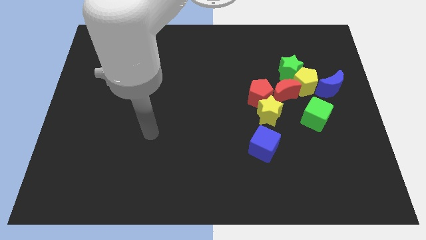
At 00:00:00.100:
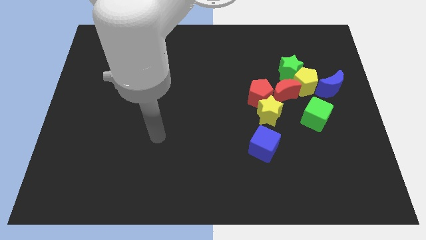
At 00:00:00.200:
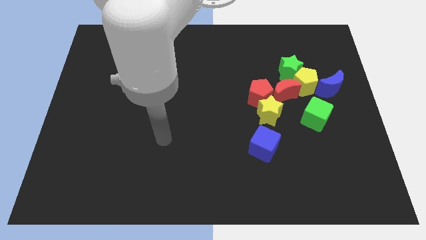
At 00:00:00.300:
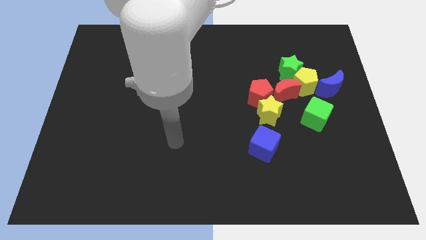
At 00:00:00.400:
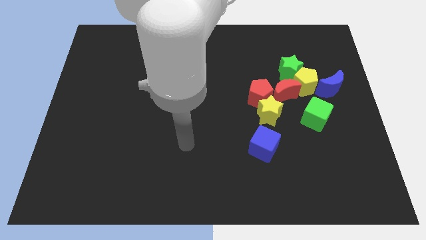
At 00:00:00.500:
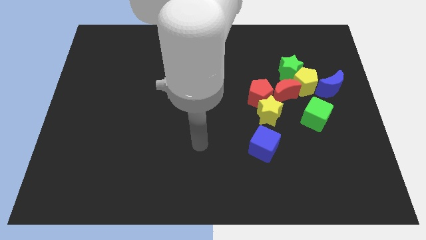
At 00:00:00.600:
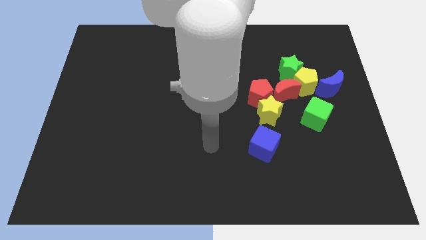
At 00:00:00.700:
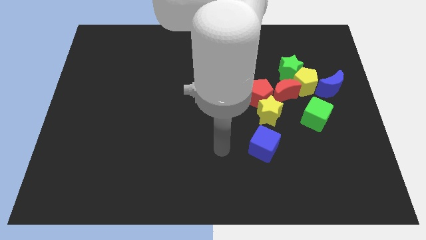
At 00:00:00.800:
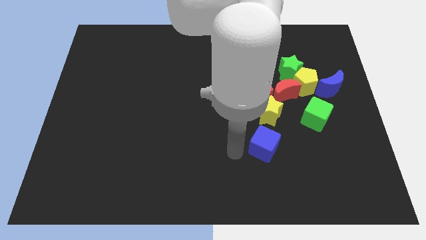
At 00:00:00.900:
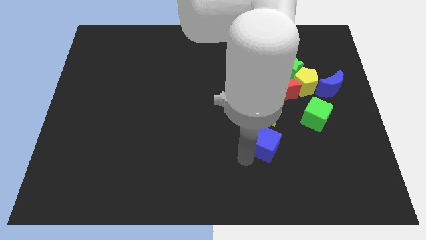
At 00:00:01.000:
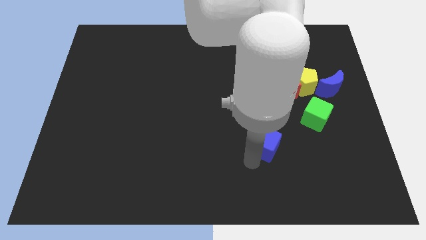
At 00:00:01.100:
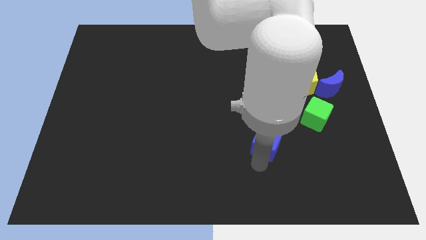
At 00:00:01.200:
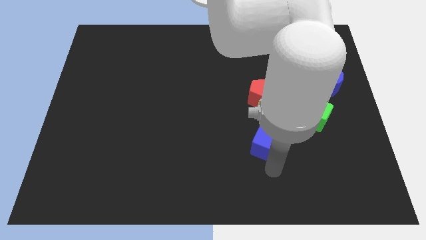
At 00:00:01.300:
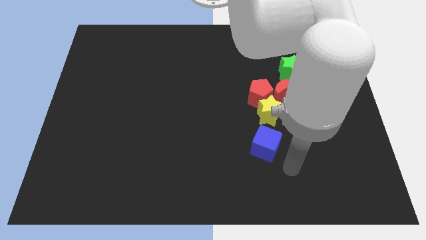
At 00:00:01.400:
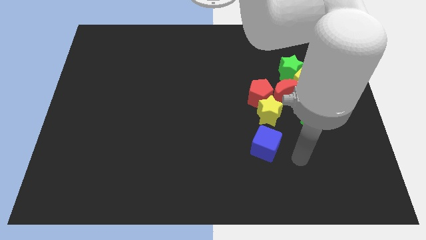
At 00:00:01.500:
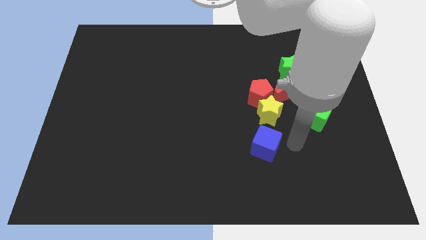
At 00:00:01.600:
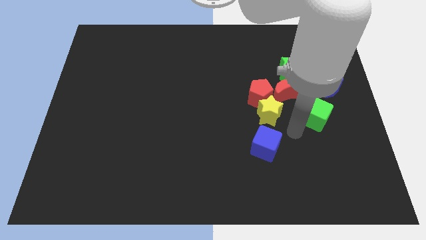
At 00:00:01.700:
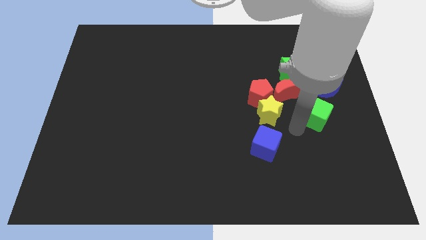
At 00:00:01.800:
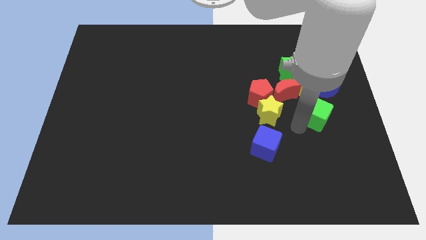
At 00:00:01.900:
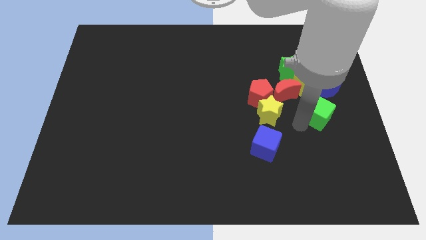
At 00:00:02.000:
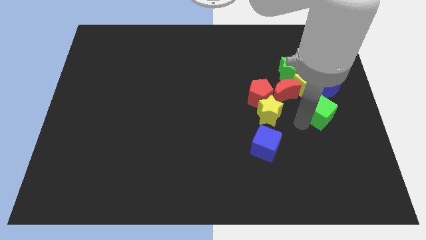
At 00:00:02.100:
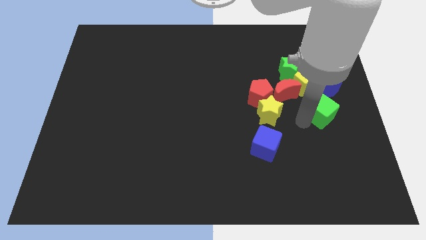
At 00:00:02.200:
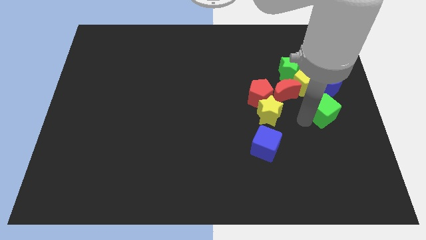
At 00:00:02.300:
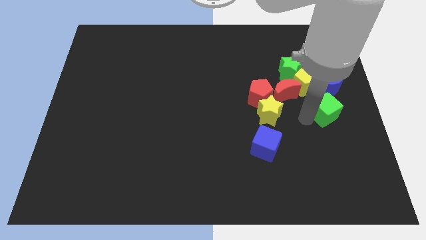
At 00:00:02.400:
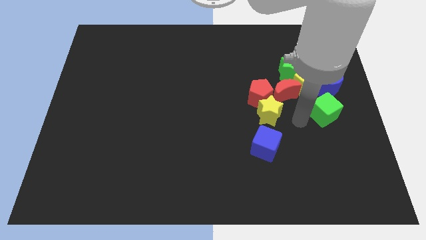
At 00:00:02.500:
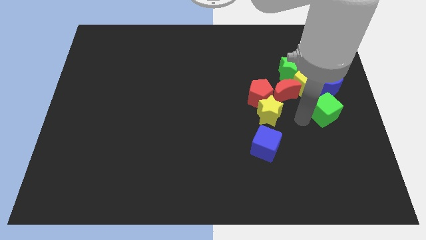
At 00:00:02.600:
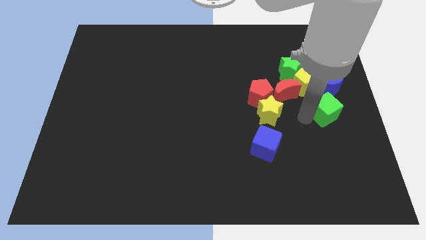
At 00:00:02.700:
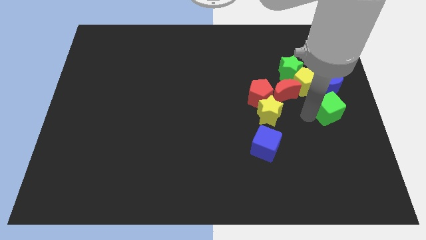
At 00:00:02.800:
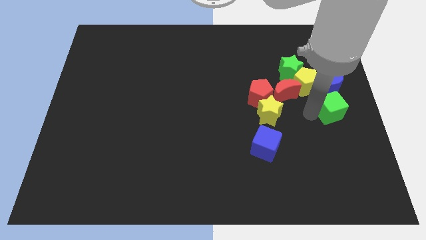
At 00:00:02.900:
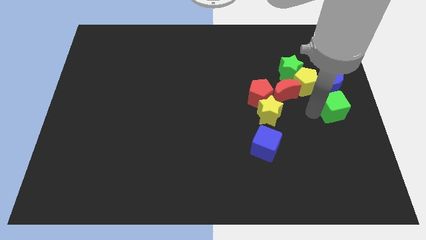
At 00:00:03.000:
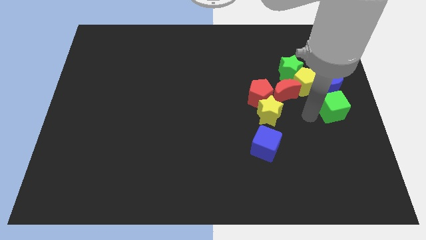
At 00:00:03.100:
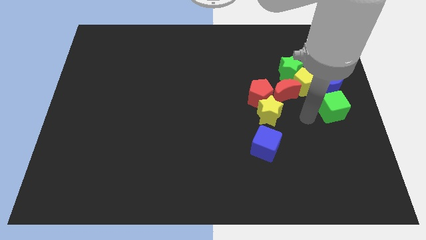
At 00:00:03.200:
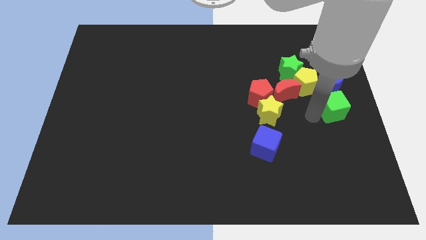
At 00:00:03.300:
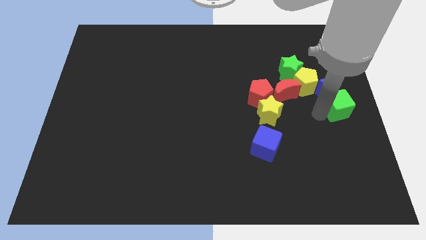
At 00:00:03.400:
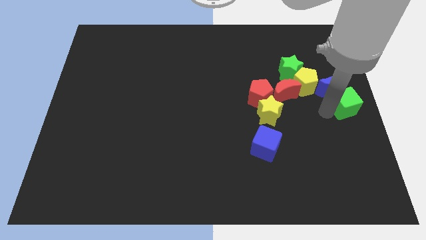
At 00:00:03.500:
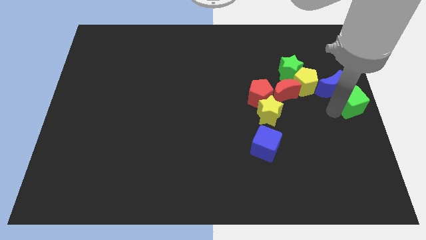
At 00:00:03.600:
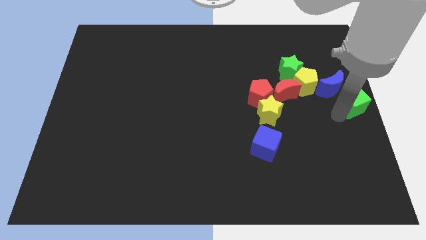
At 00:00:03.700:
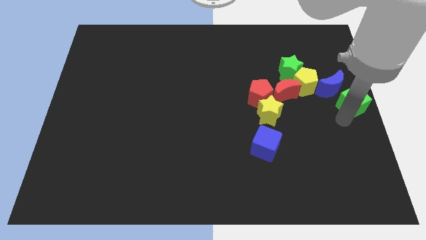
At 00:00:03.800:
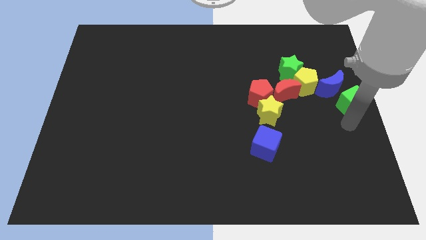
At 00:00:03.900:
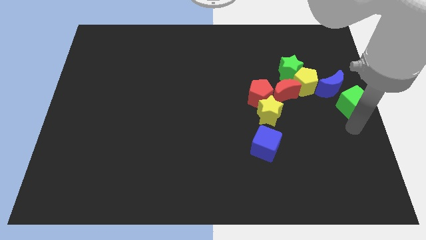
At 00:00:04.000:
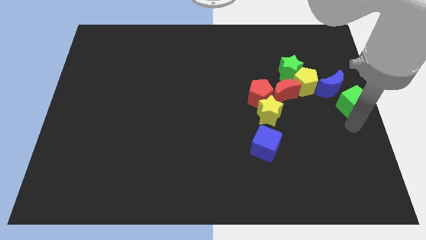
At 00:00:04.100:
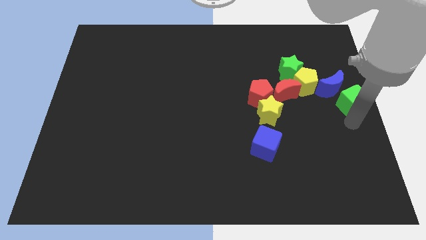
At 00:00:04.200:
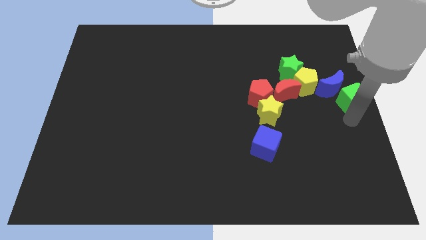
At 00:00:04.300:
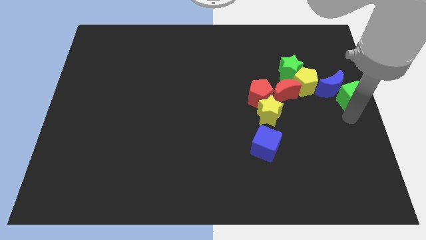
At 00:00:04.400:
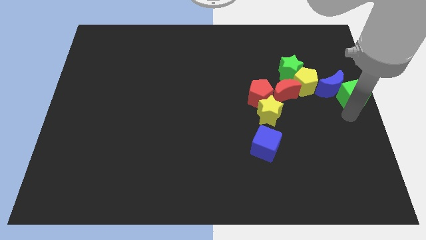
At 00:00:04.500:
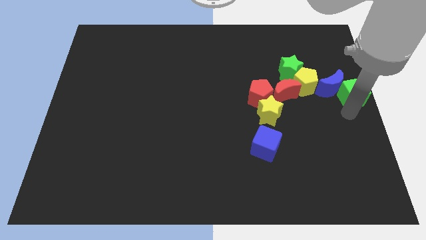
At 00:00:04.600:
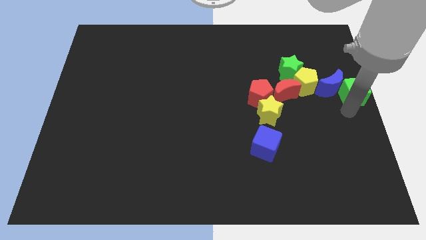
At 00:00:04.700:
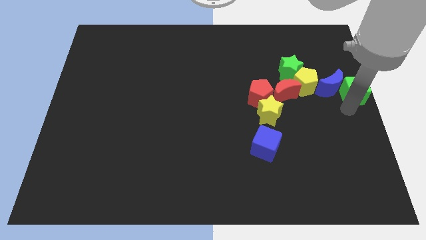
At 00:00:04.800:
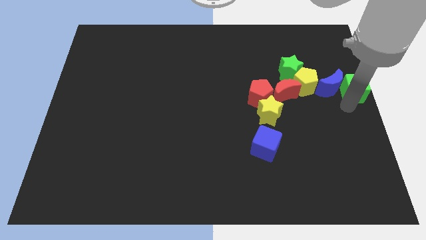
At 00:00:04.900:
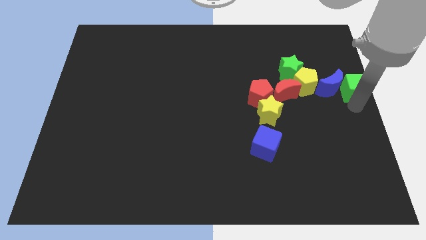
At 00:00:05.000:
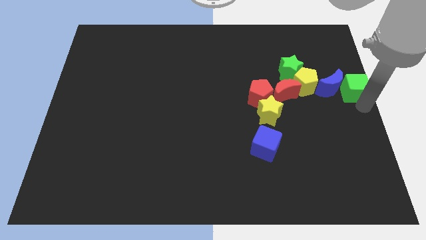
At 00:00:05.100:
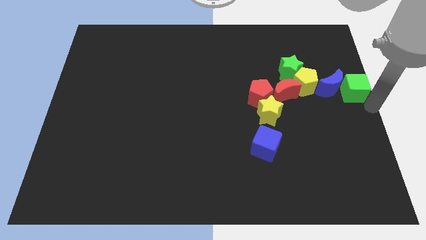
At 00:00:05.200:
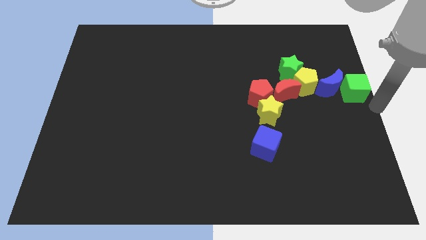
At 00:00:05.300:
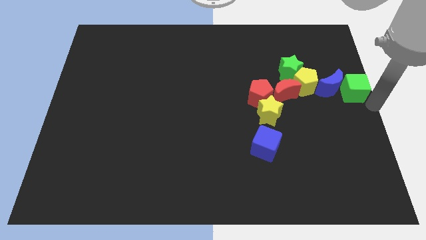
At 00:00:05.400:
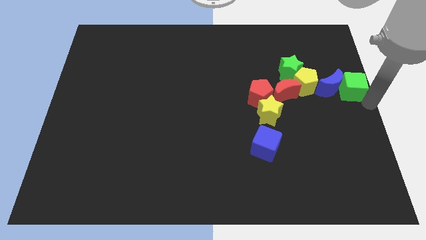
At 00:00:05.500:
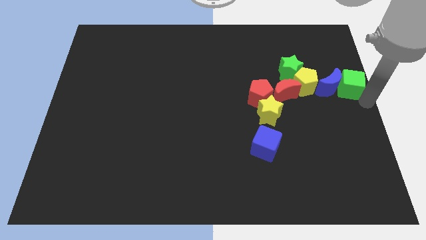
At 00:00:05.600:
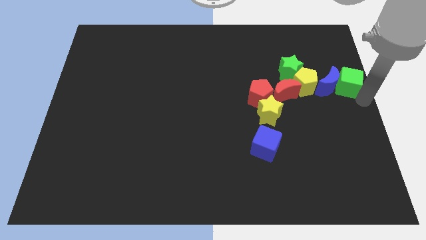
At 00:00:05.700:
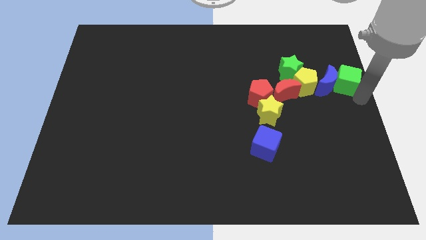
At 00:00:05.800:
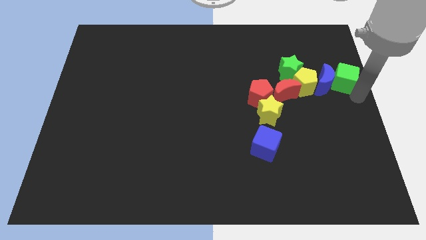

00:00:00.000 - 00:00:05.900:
slightly slide the green cube up

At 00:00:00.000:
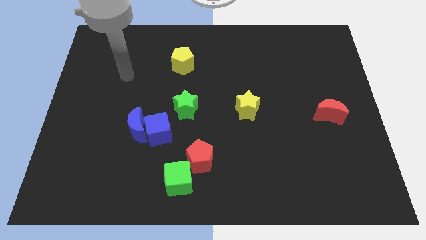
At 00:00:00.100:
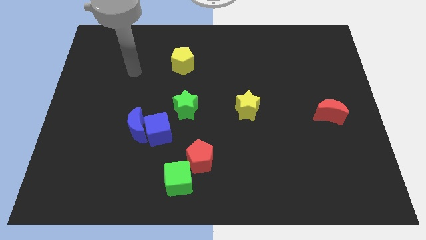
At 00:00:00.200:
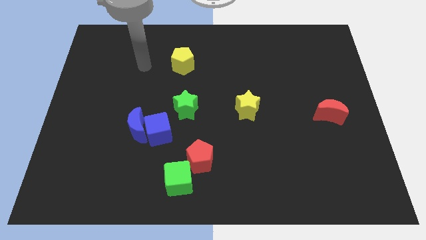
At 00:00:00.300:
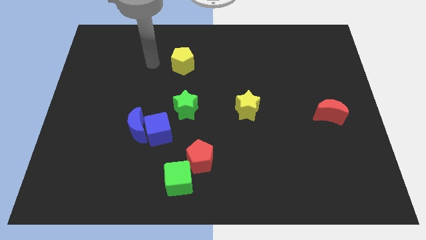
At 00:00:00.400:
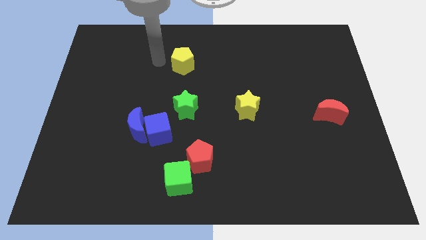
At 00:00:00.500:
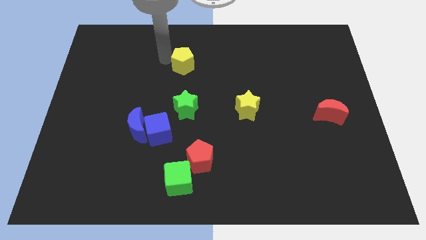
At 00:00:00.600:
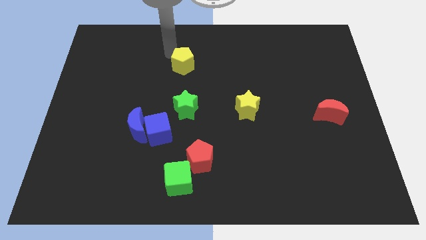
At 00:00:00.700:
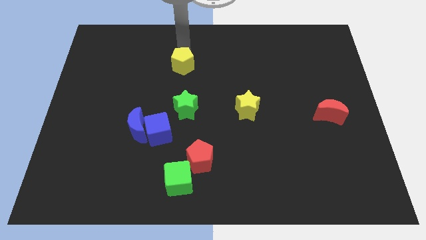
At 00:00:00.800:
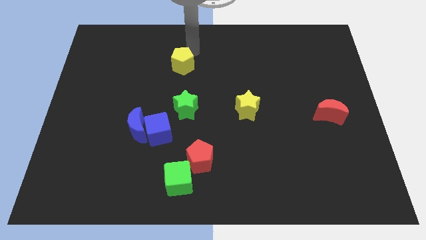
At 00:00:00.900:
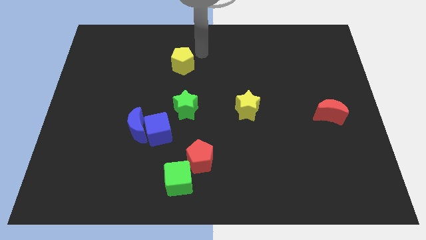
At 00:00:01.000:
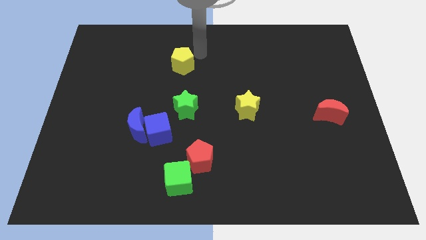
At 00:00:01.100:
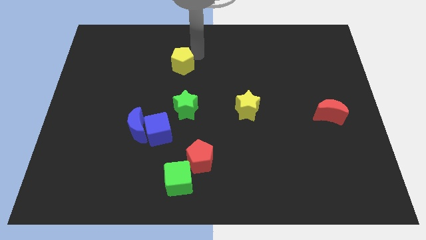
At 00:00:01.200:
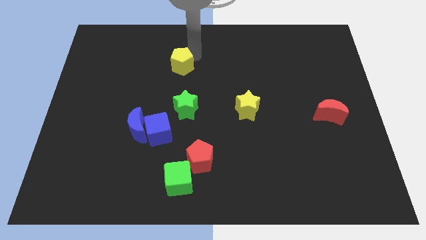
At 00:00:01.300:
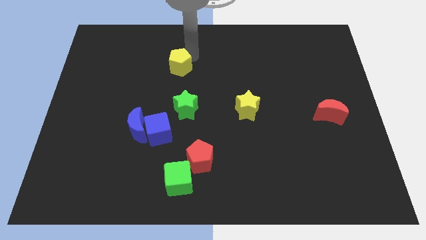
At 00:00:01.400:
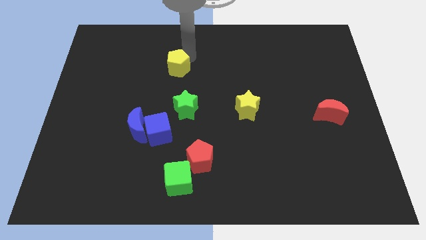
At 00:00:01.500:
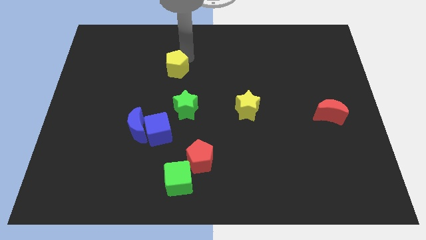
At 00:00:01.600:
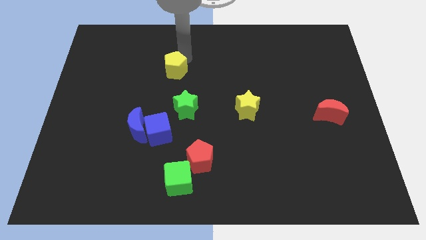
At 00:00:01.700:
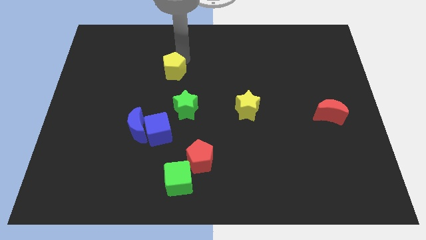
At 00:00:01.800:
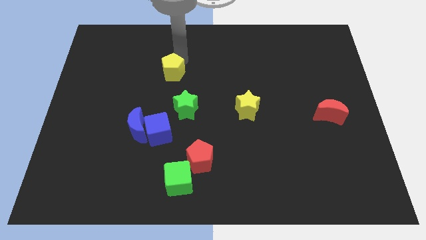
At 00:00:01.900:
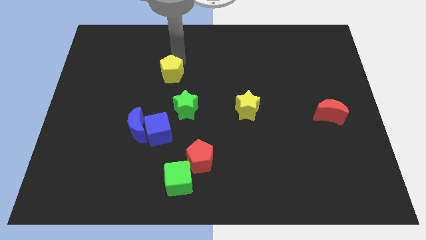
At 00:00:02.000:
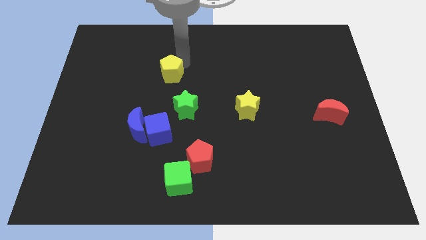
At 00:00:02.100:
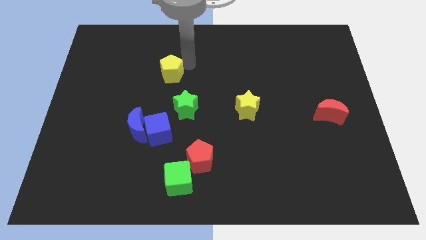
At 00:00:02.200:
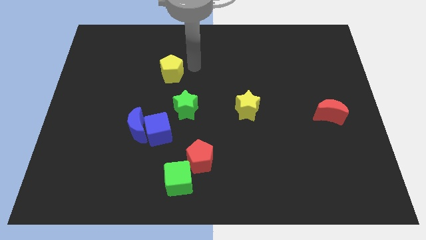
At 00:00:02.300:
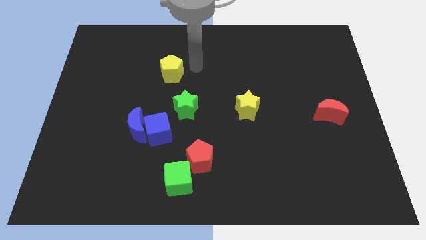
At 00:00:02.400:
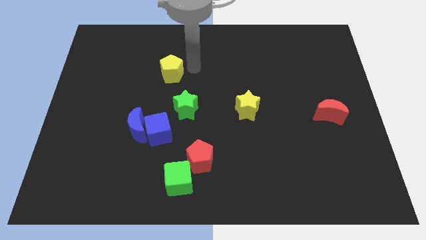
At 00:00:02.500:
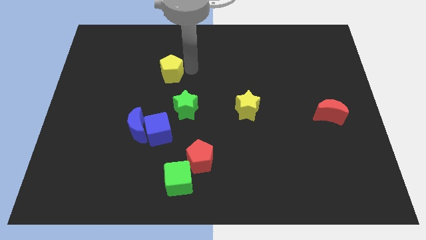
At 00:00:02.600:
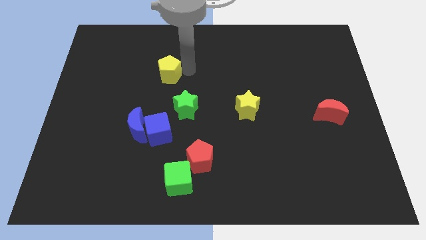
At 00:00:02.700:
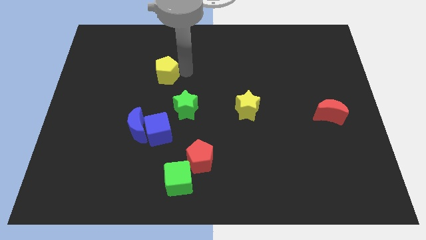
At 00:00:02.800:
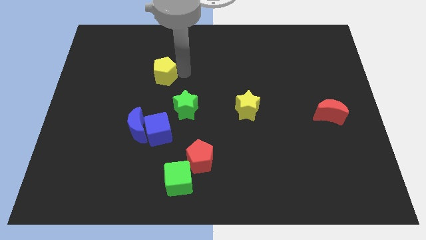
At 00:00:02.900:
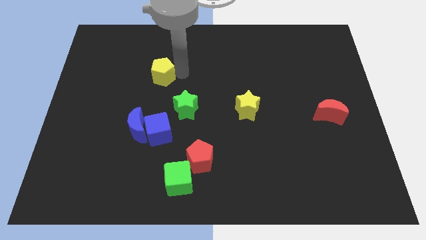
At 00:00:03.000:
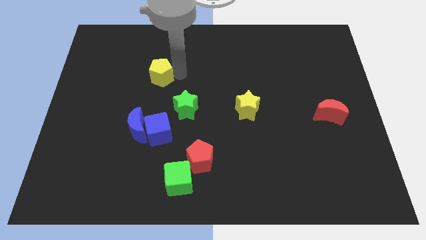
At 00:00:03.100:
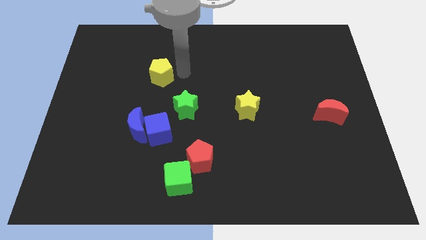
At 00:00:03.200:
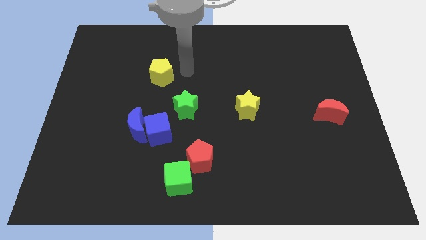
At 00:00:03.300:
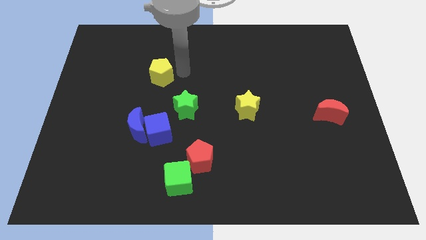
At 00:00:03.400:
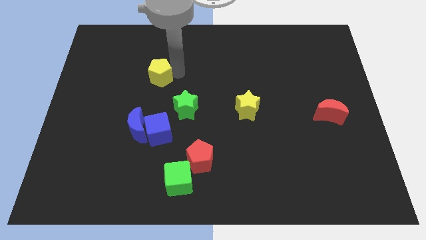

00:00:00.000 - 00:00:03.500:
move the yellow pentagon somewhat down and then left
